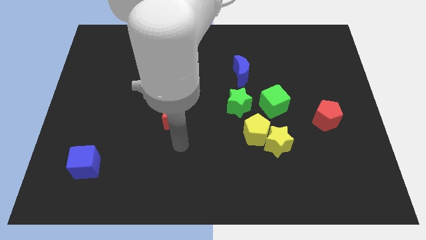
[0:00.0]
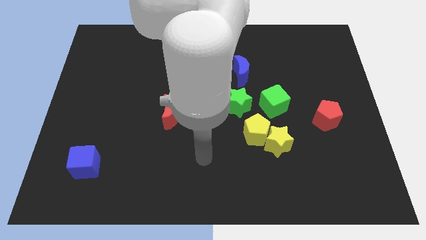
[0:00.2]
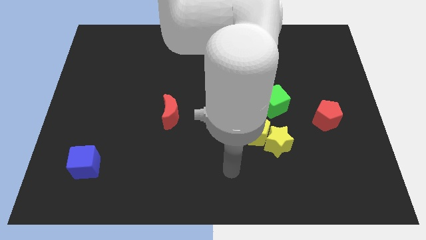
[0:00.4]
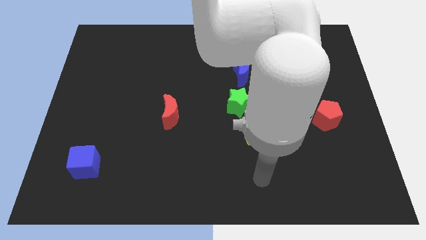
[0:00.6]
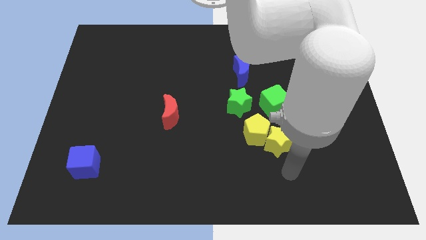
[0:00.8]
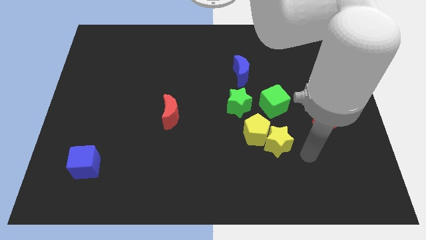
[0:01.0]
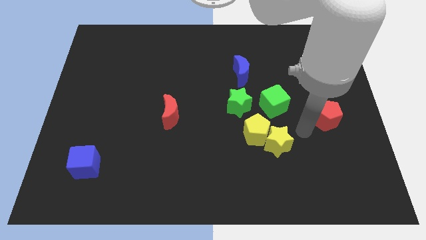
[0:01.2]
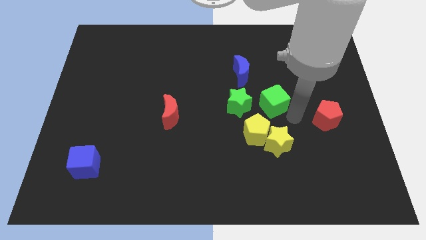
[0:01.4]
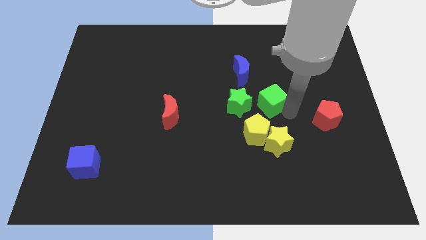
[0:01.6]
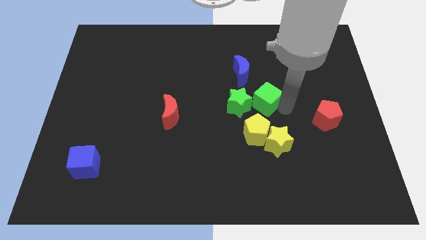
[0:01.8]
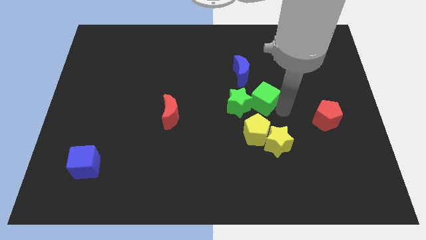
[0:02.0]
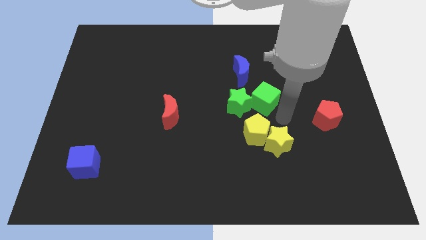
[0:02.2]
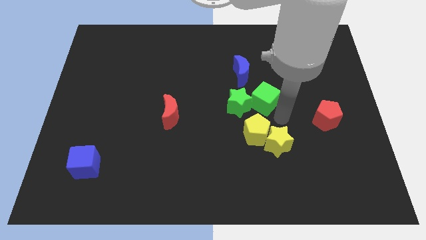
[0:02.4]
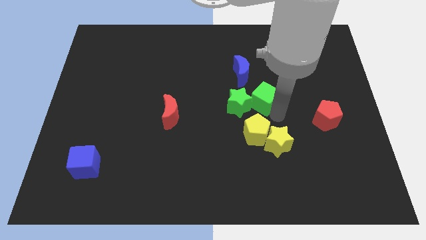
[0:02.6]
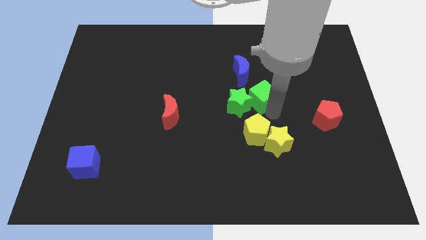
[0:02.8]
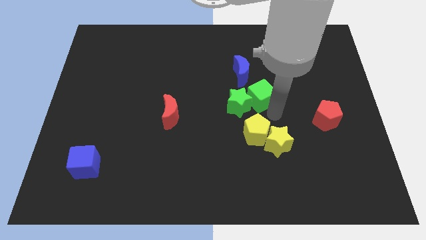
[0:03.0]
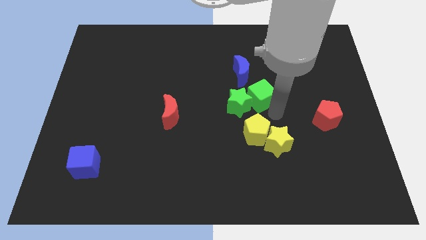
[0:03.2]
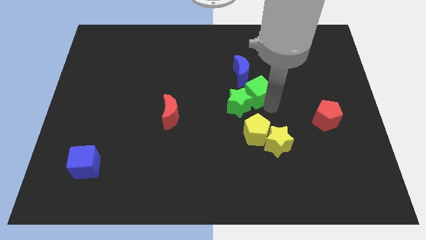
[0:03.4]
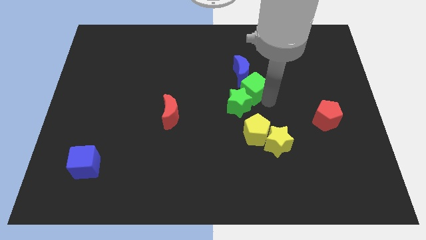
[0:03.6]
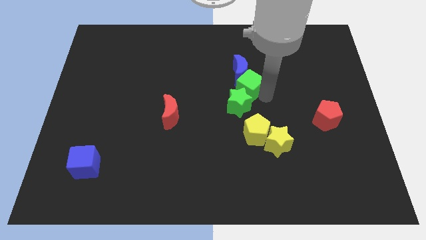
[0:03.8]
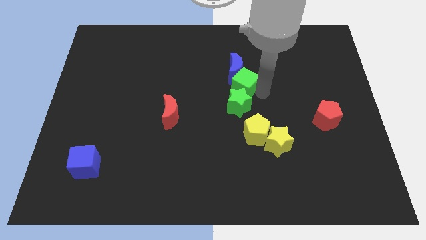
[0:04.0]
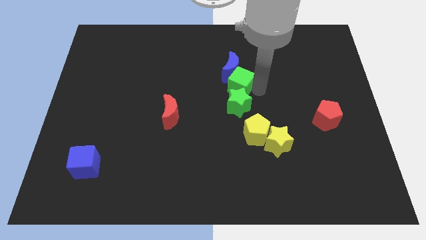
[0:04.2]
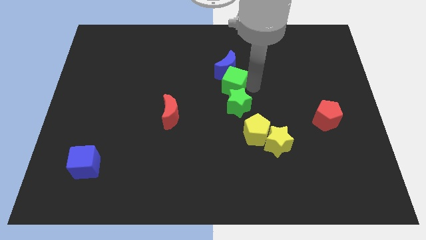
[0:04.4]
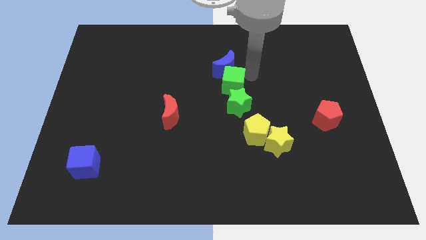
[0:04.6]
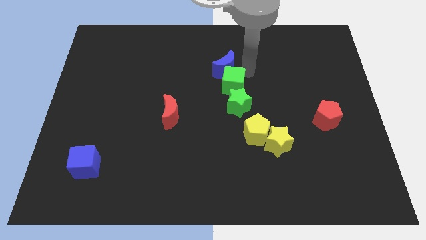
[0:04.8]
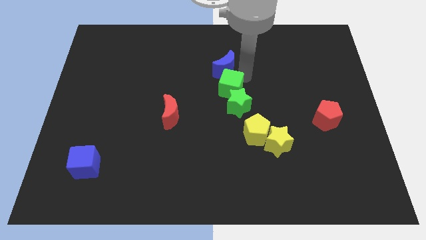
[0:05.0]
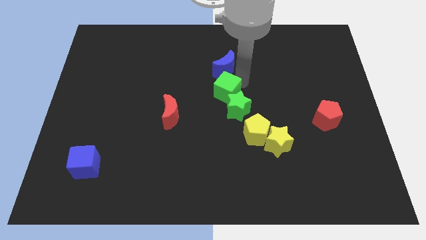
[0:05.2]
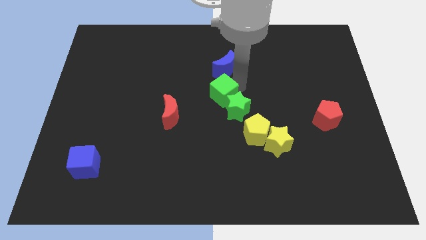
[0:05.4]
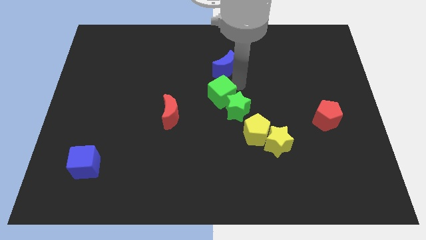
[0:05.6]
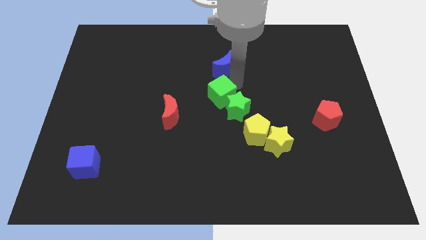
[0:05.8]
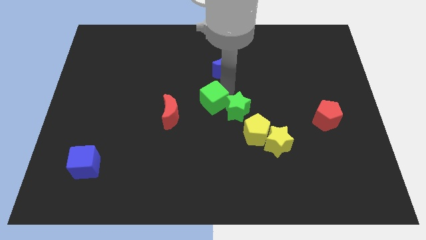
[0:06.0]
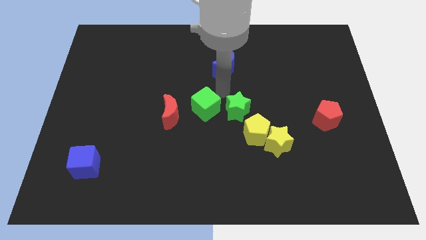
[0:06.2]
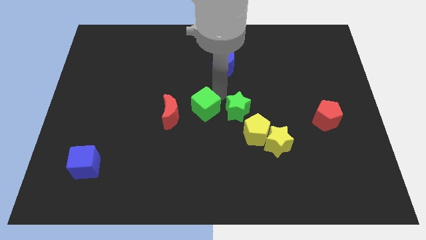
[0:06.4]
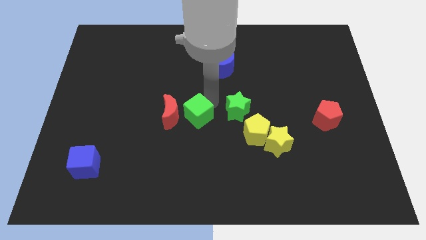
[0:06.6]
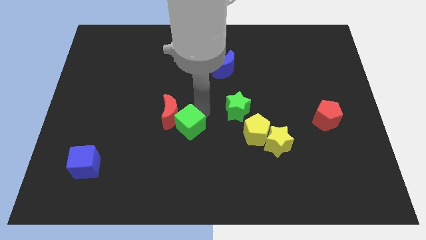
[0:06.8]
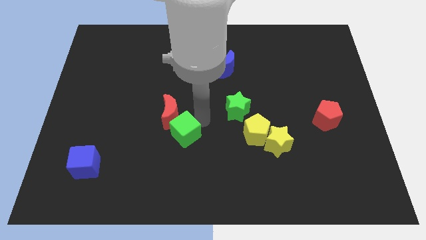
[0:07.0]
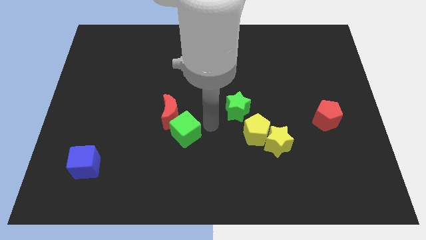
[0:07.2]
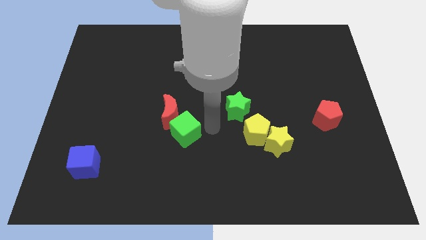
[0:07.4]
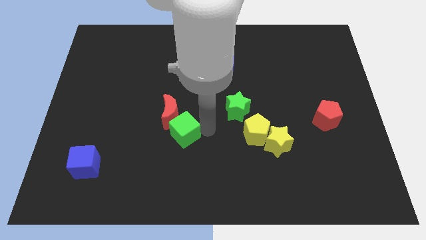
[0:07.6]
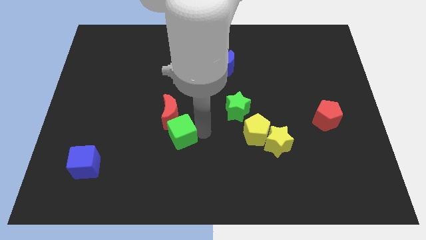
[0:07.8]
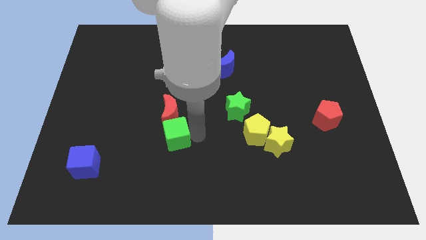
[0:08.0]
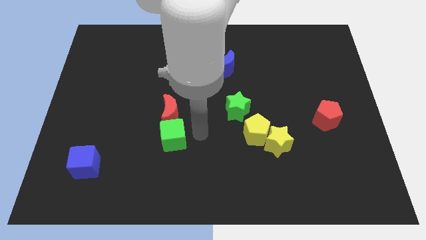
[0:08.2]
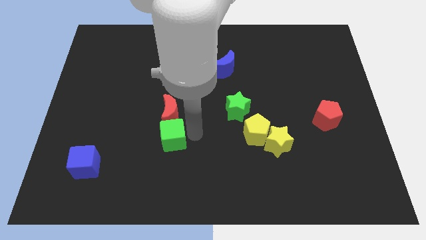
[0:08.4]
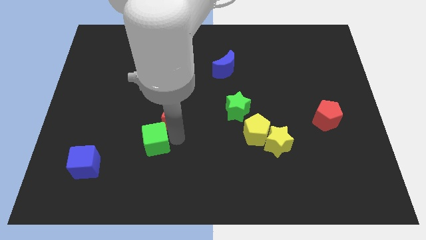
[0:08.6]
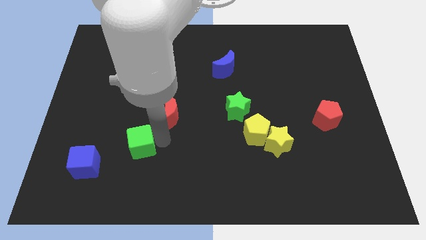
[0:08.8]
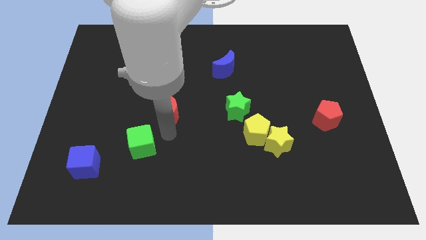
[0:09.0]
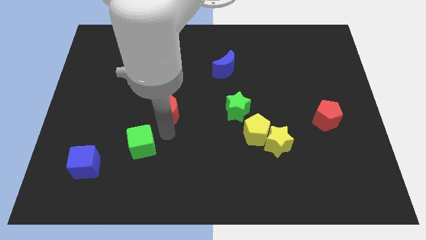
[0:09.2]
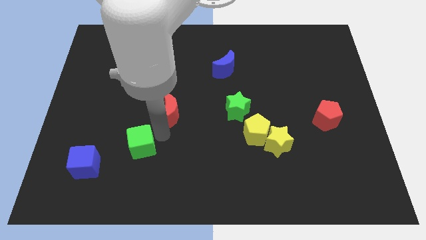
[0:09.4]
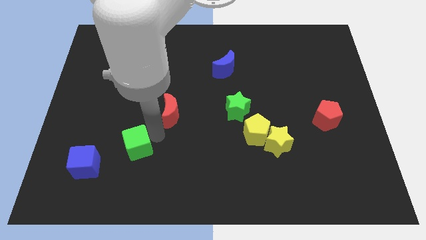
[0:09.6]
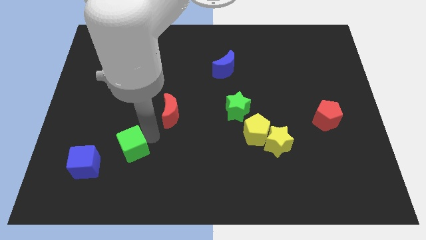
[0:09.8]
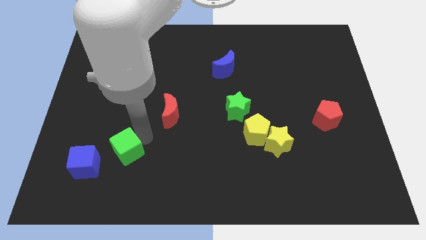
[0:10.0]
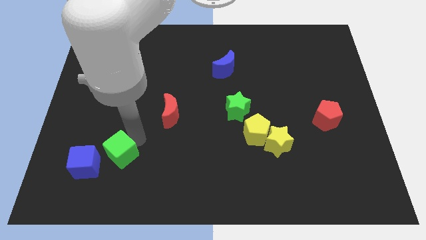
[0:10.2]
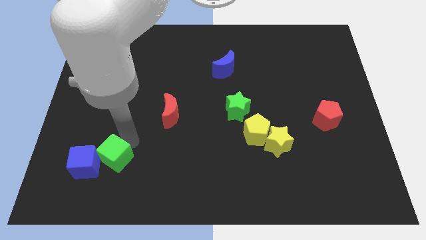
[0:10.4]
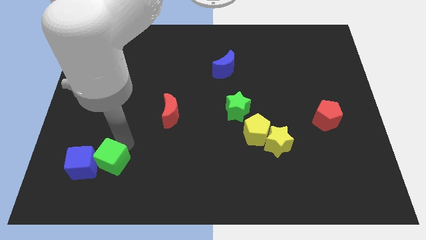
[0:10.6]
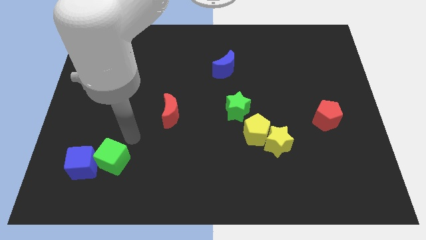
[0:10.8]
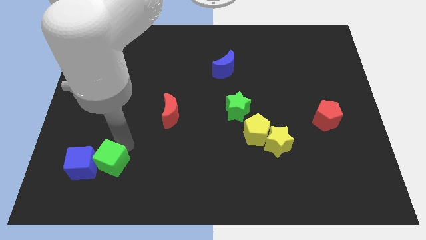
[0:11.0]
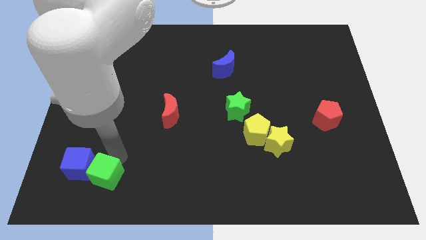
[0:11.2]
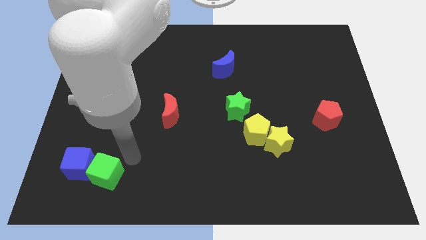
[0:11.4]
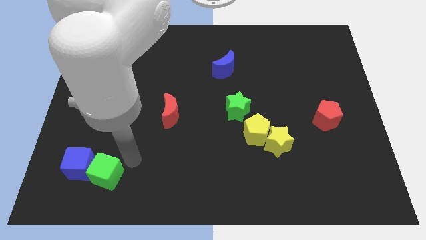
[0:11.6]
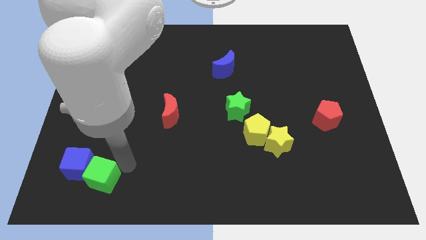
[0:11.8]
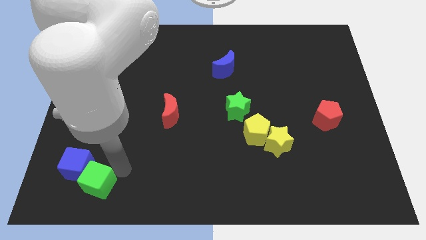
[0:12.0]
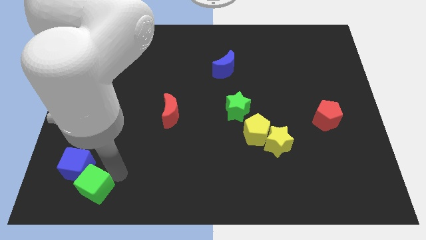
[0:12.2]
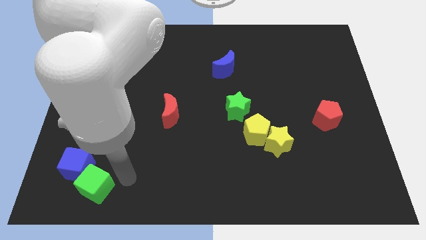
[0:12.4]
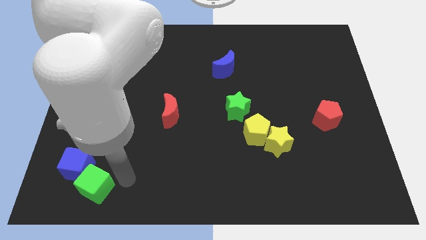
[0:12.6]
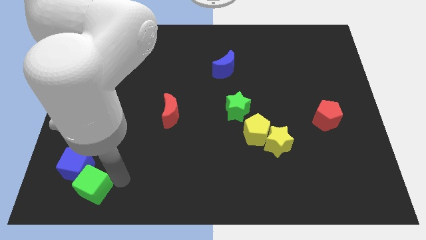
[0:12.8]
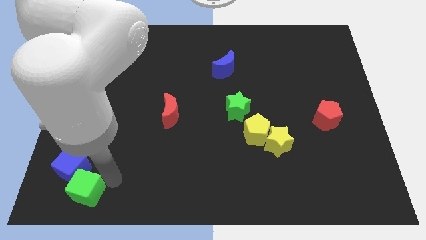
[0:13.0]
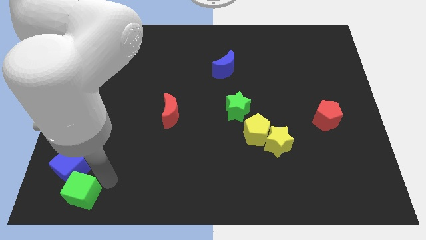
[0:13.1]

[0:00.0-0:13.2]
put the green cube to the lower left corner
